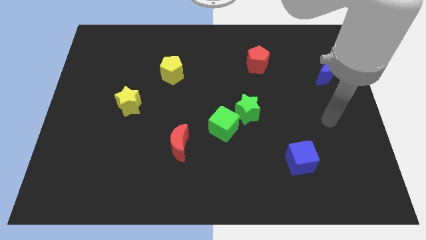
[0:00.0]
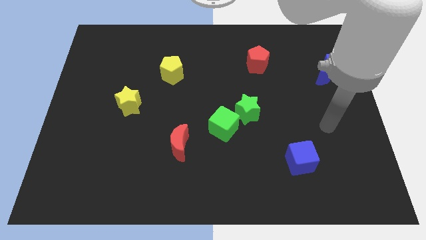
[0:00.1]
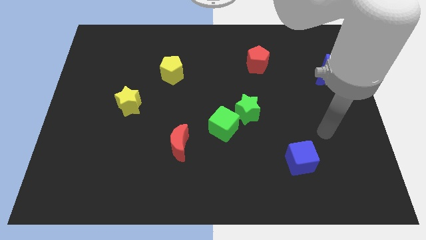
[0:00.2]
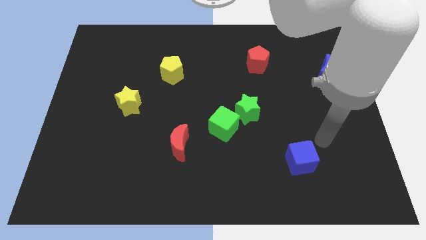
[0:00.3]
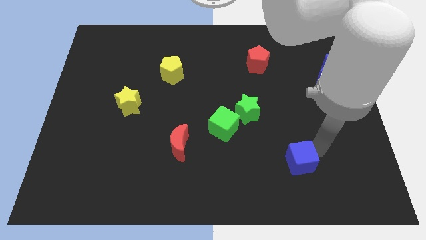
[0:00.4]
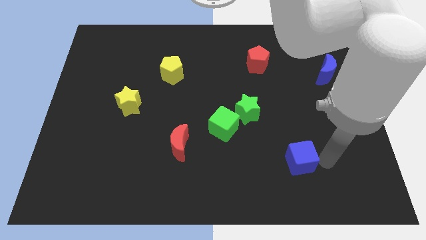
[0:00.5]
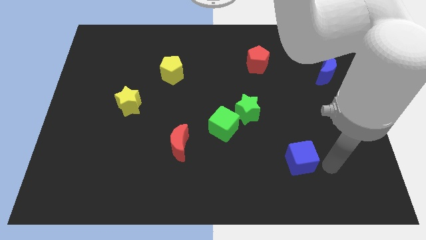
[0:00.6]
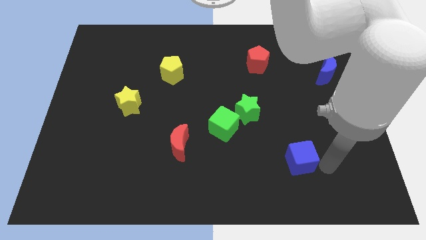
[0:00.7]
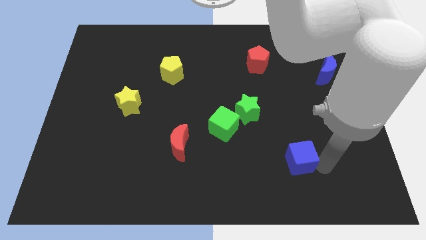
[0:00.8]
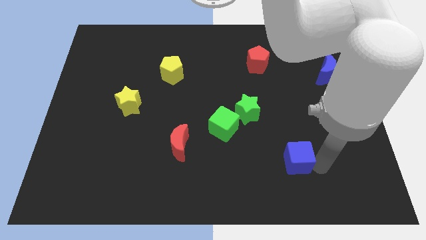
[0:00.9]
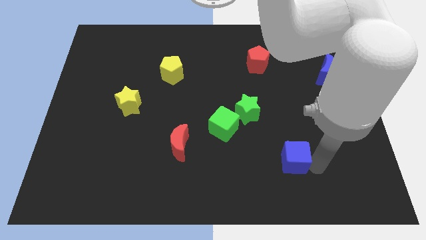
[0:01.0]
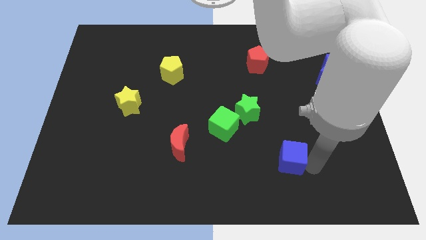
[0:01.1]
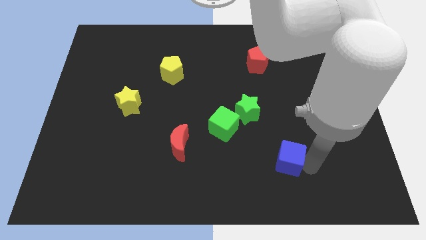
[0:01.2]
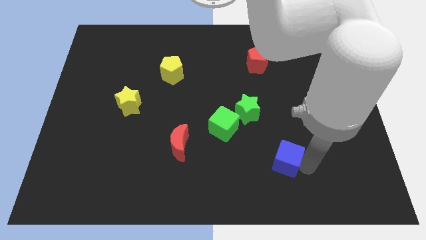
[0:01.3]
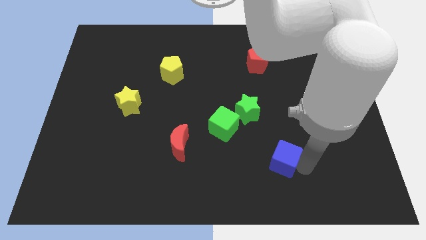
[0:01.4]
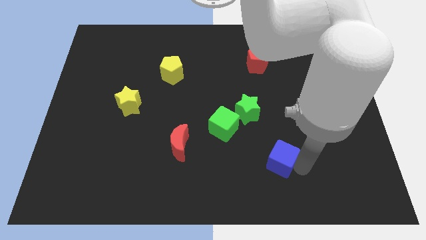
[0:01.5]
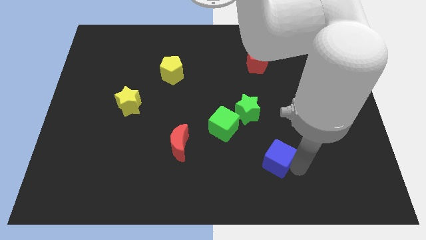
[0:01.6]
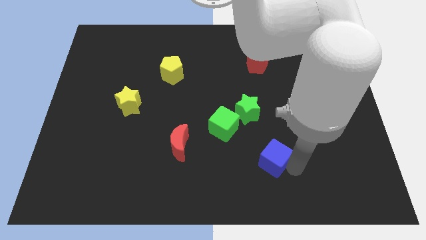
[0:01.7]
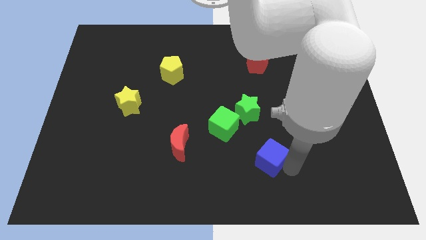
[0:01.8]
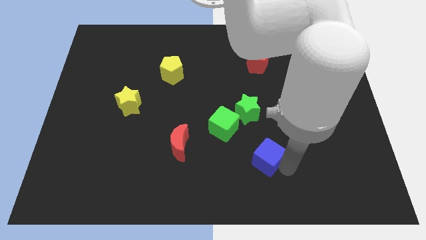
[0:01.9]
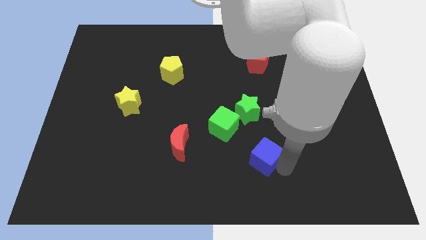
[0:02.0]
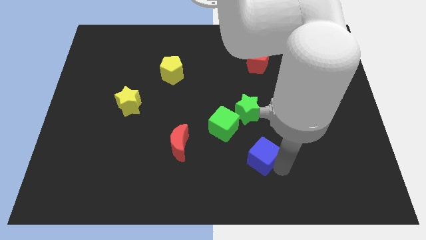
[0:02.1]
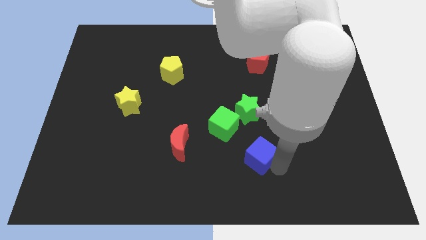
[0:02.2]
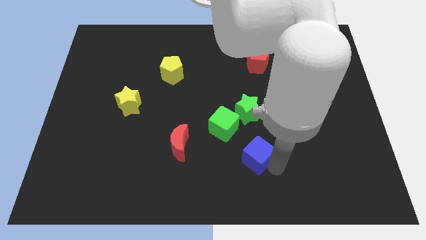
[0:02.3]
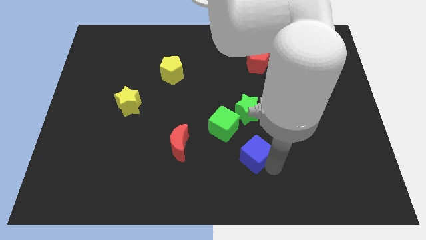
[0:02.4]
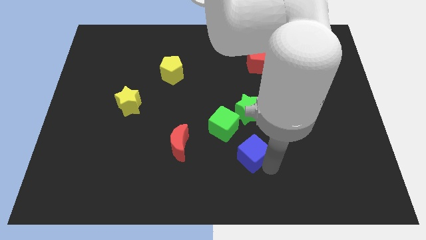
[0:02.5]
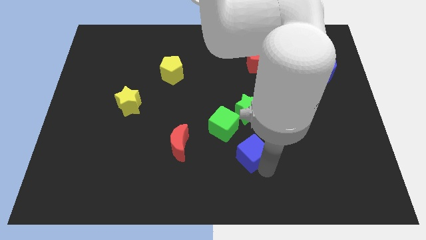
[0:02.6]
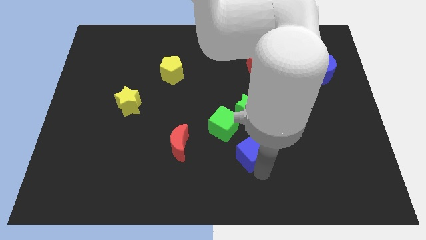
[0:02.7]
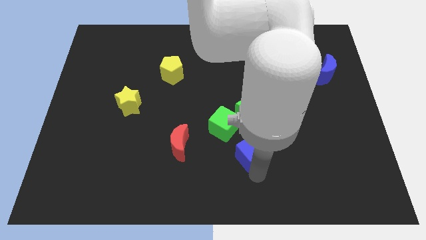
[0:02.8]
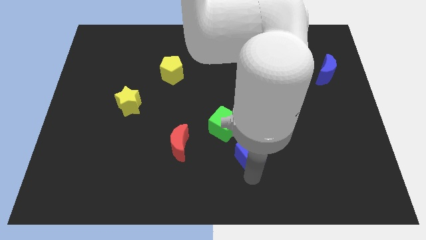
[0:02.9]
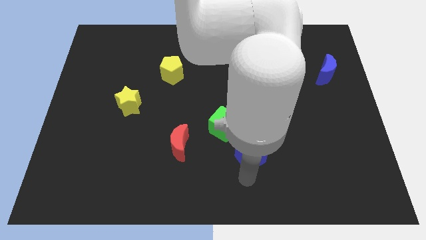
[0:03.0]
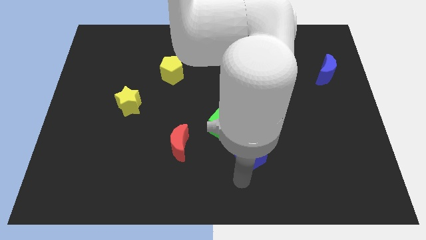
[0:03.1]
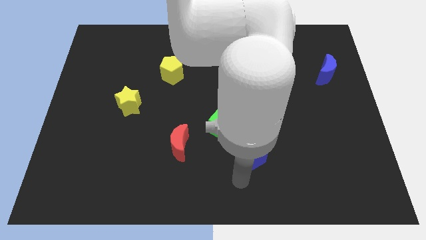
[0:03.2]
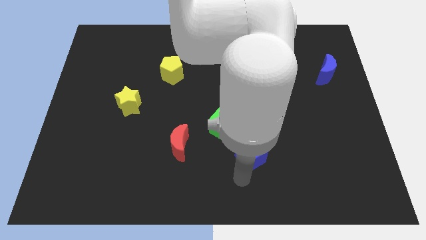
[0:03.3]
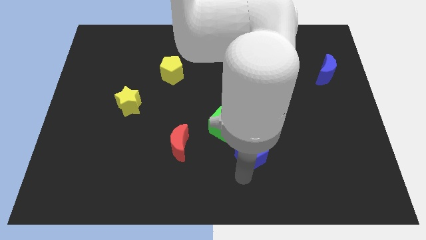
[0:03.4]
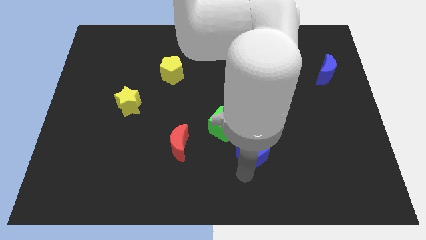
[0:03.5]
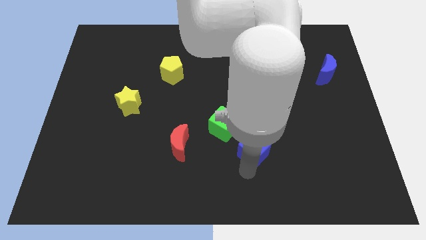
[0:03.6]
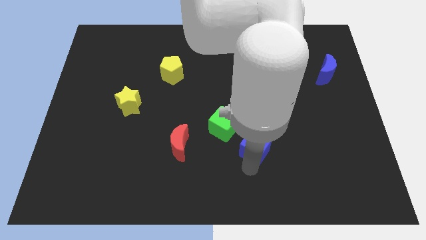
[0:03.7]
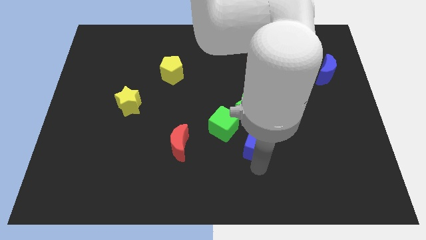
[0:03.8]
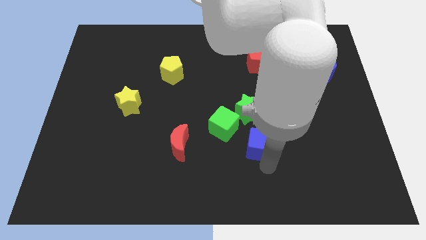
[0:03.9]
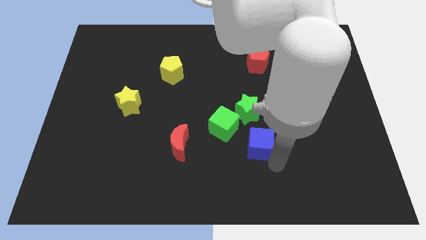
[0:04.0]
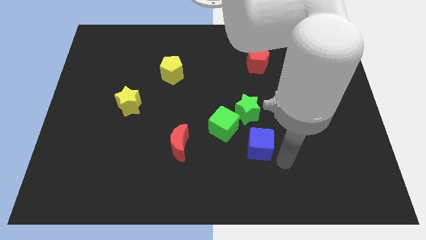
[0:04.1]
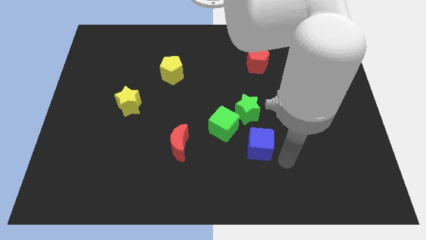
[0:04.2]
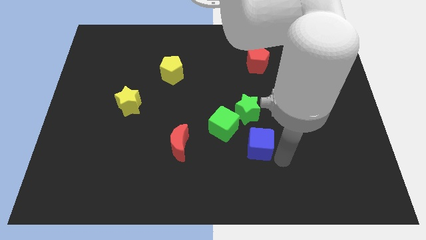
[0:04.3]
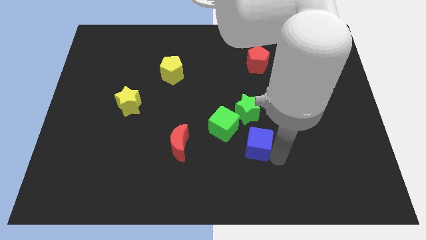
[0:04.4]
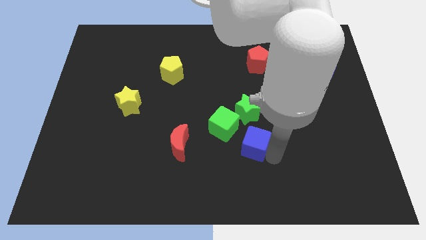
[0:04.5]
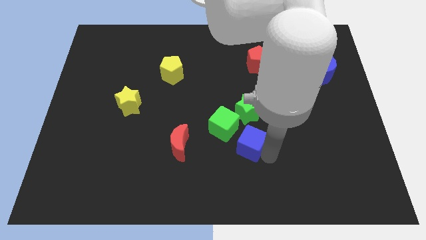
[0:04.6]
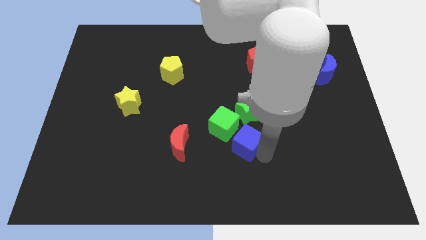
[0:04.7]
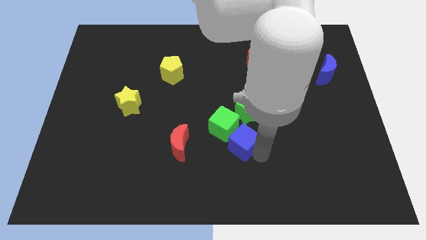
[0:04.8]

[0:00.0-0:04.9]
slide the blue cube towards the green cube

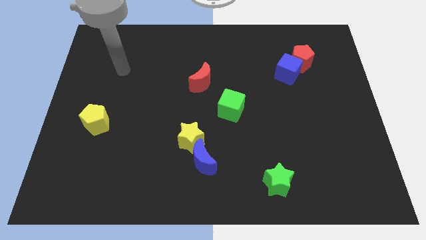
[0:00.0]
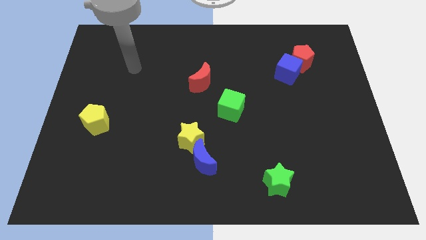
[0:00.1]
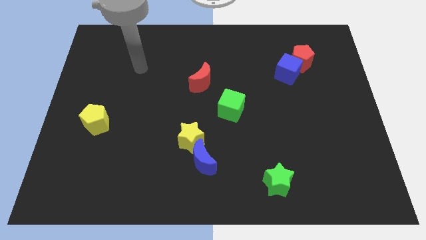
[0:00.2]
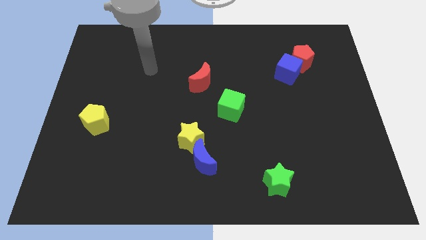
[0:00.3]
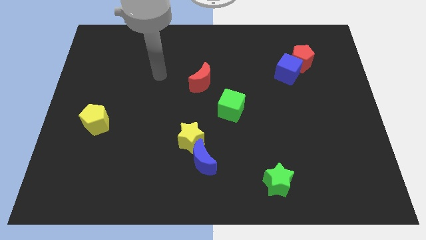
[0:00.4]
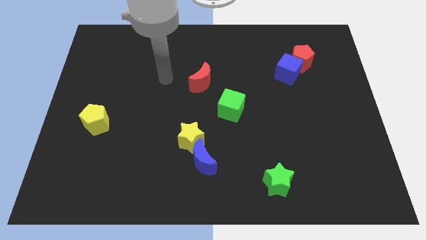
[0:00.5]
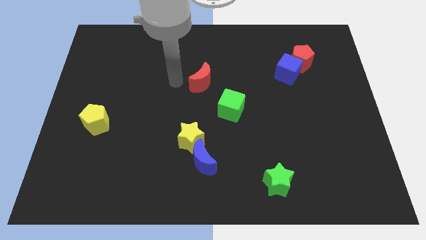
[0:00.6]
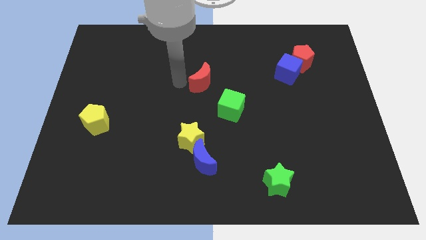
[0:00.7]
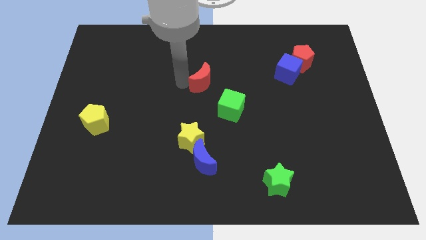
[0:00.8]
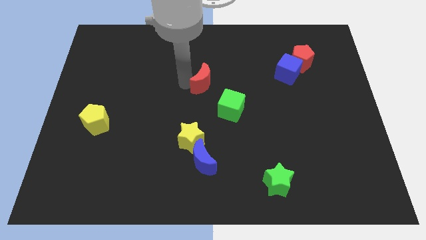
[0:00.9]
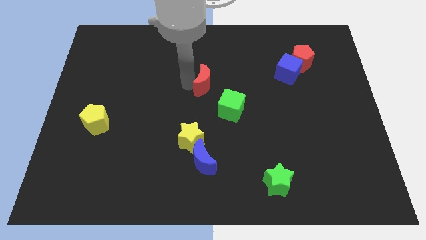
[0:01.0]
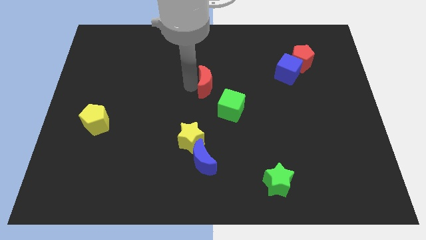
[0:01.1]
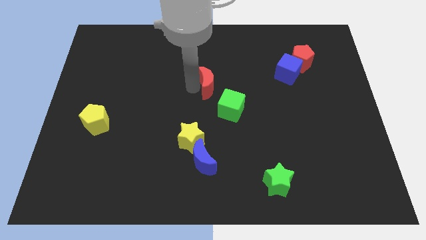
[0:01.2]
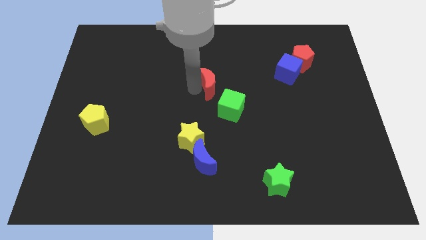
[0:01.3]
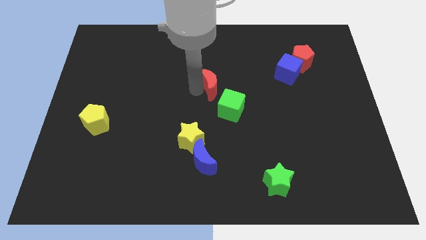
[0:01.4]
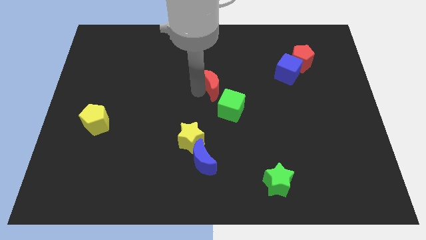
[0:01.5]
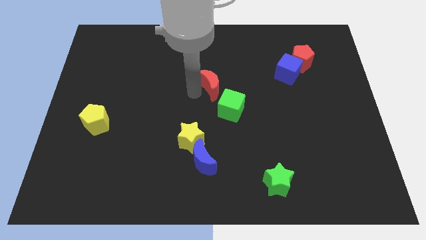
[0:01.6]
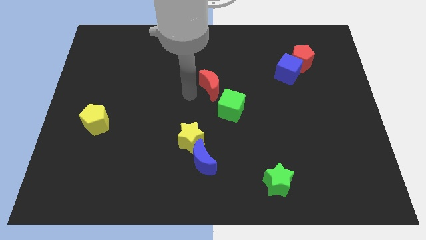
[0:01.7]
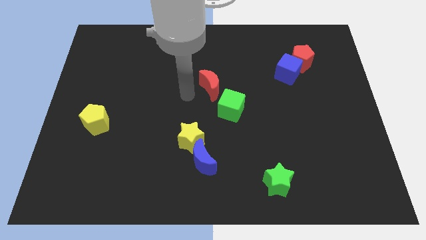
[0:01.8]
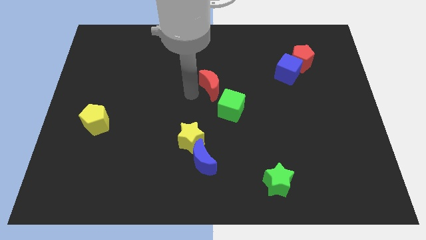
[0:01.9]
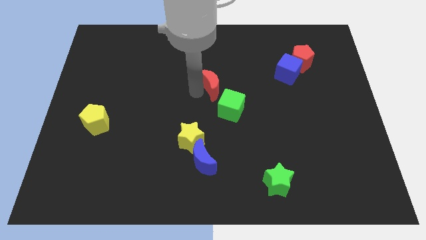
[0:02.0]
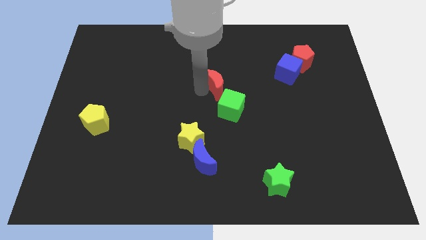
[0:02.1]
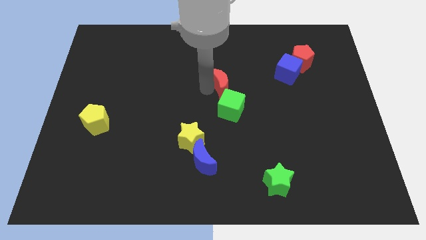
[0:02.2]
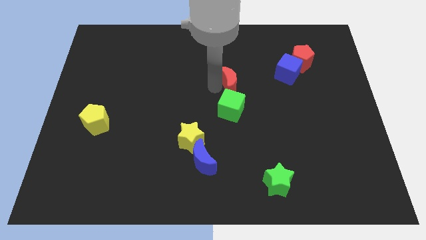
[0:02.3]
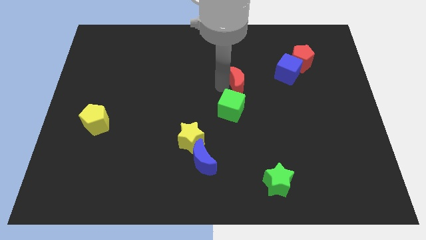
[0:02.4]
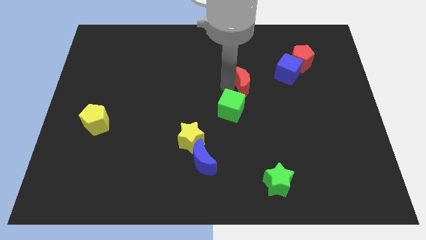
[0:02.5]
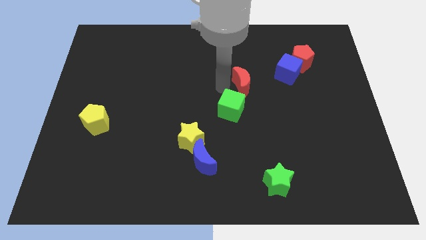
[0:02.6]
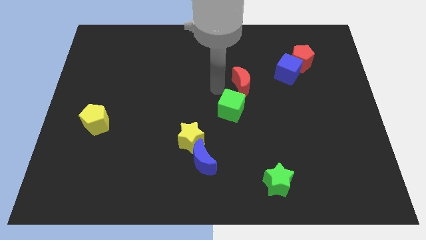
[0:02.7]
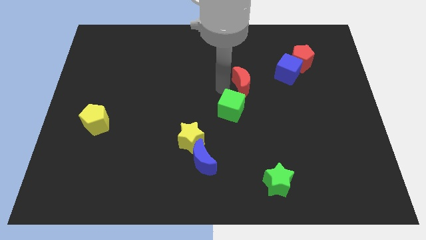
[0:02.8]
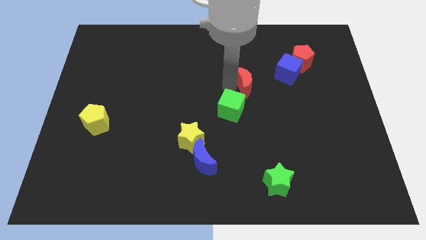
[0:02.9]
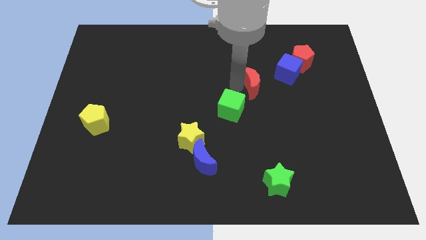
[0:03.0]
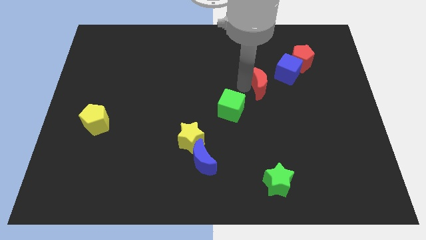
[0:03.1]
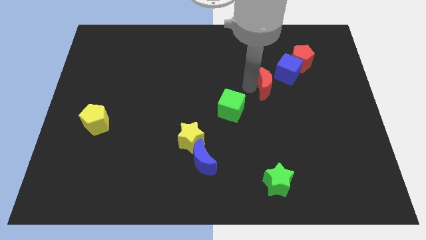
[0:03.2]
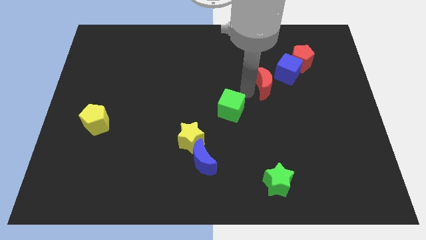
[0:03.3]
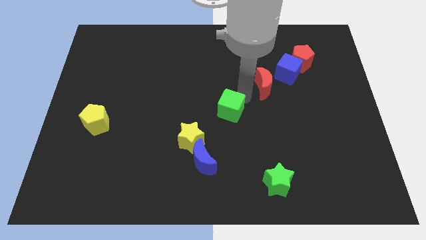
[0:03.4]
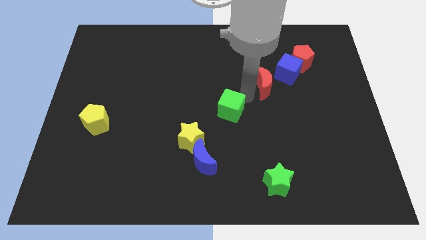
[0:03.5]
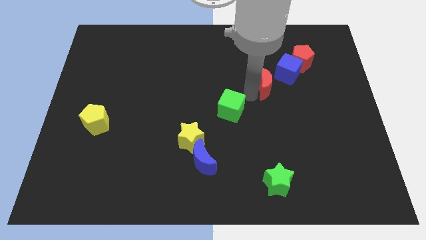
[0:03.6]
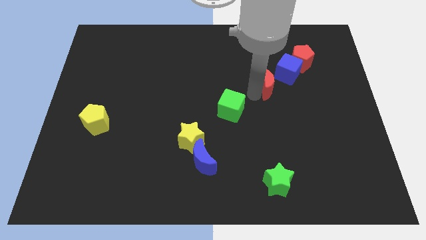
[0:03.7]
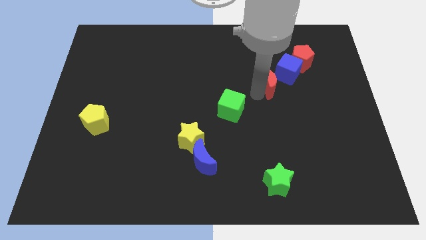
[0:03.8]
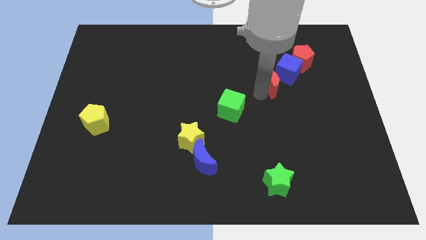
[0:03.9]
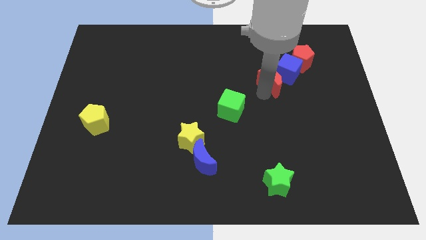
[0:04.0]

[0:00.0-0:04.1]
slide the red moon next to the blue cube
